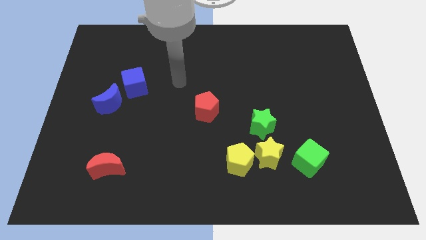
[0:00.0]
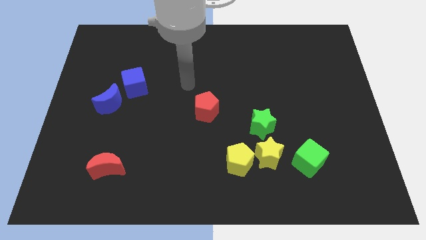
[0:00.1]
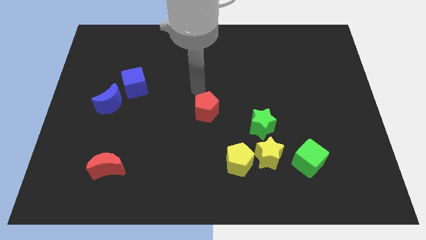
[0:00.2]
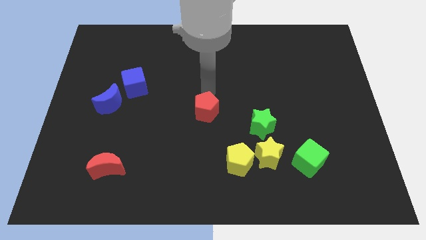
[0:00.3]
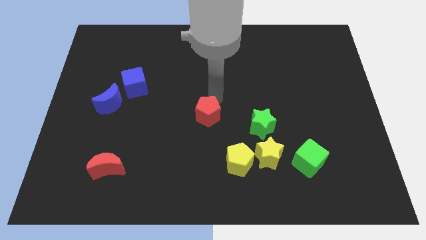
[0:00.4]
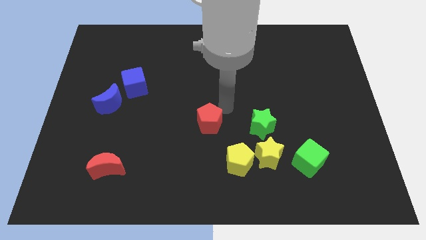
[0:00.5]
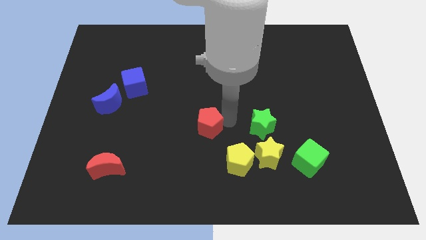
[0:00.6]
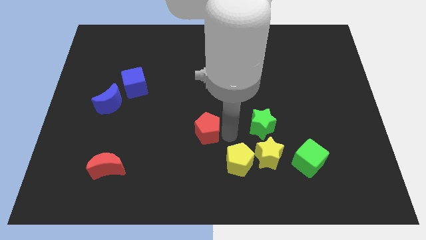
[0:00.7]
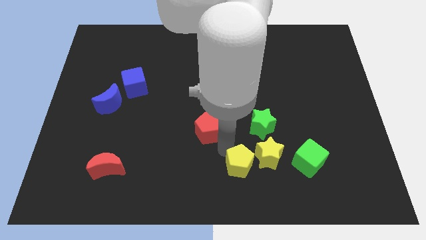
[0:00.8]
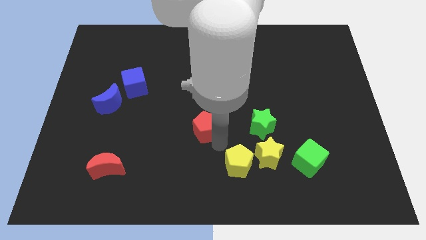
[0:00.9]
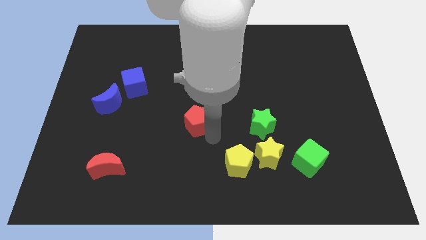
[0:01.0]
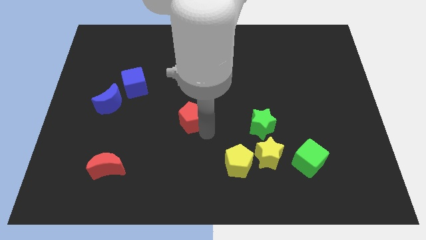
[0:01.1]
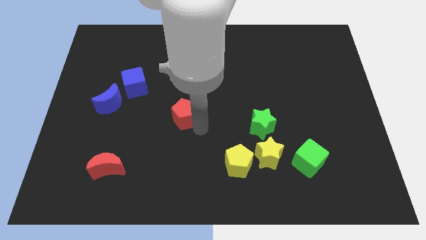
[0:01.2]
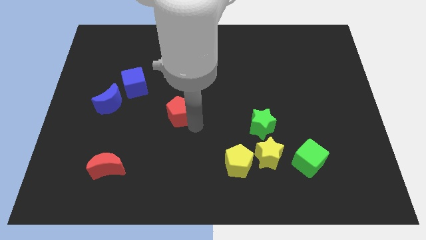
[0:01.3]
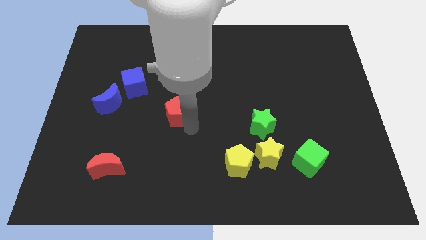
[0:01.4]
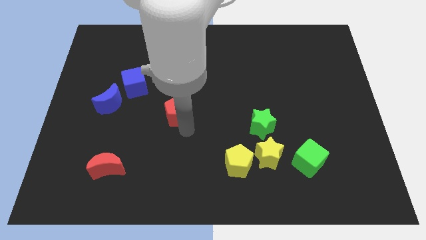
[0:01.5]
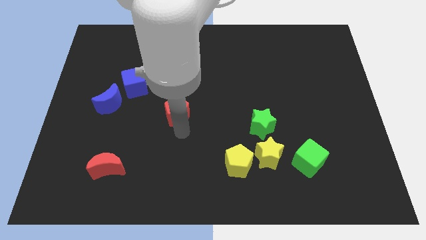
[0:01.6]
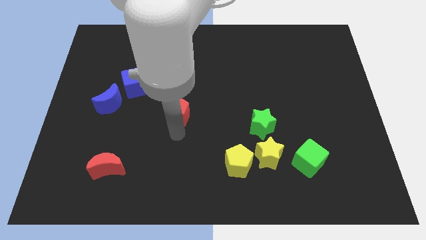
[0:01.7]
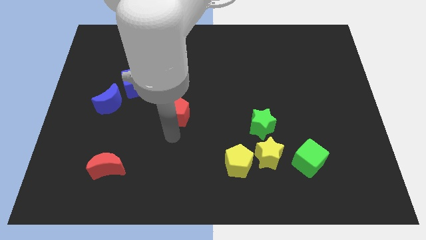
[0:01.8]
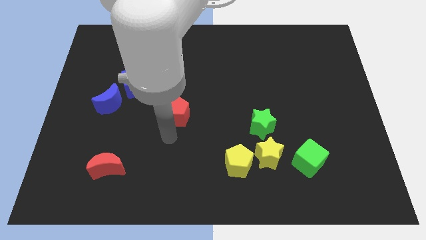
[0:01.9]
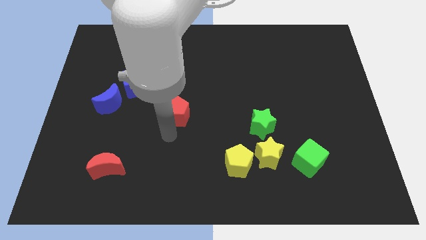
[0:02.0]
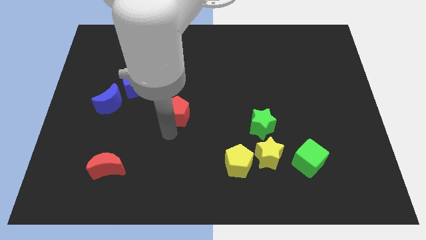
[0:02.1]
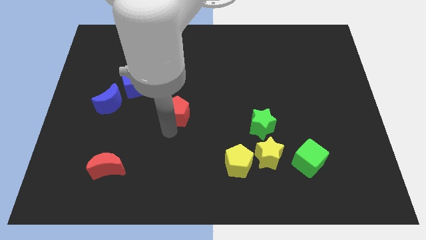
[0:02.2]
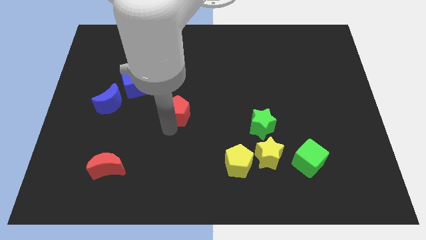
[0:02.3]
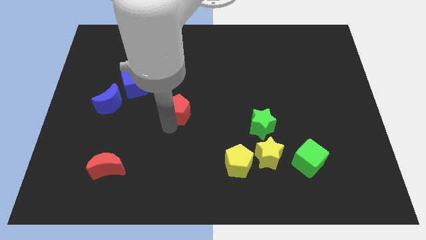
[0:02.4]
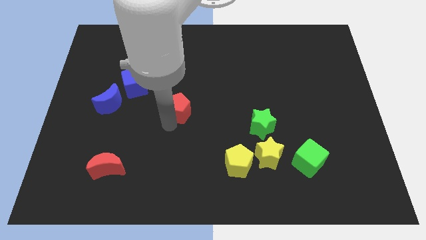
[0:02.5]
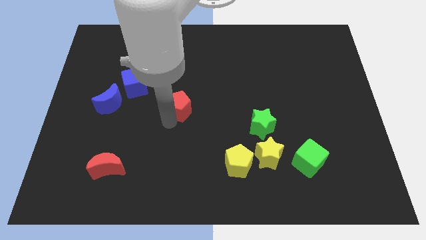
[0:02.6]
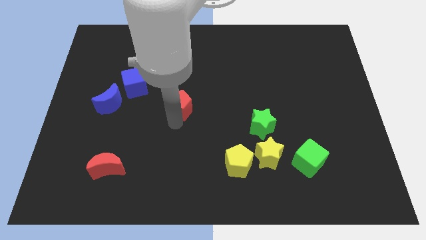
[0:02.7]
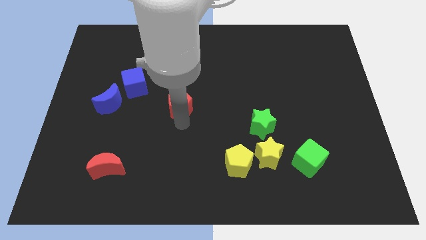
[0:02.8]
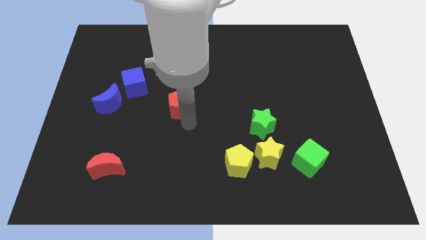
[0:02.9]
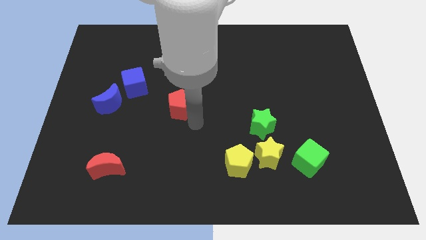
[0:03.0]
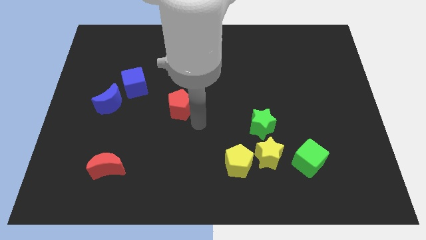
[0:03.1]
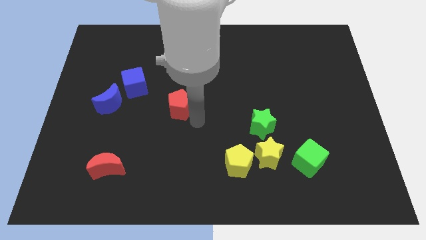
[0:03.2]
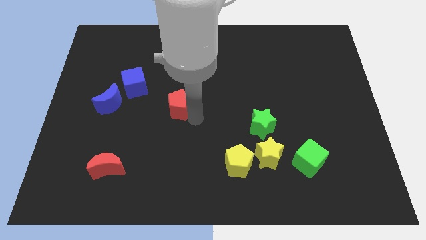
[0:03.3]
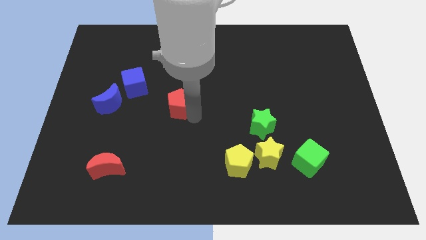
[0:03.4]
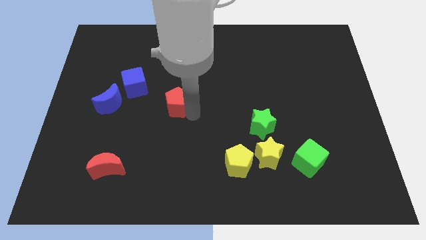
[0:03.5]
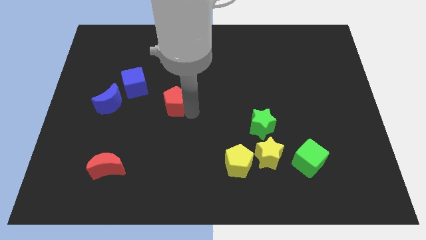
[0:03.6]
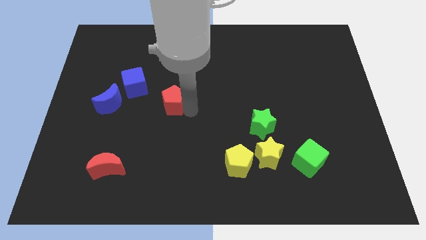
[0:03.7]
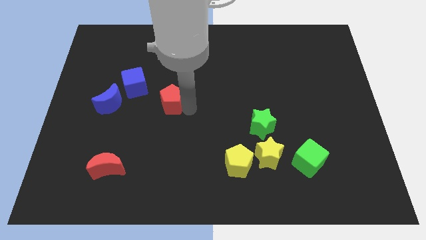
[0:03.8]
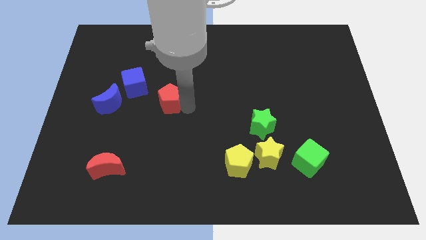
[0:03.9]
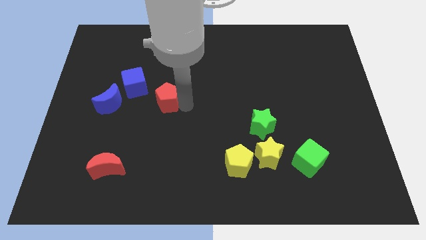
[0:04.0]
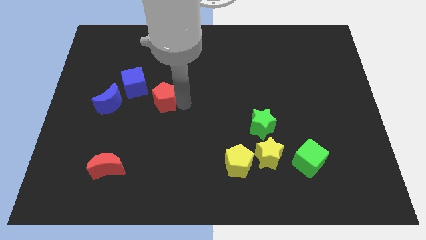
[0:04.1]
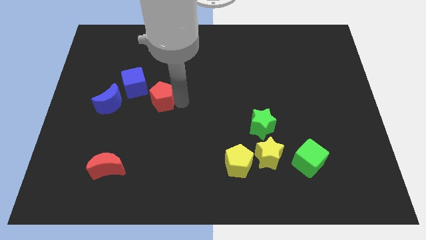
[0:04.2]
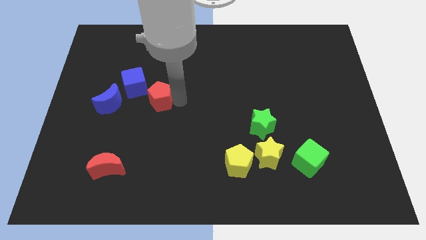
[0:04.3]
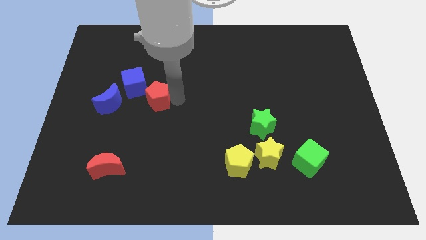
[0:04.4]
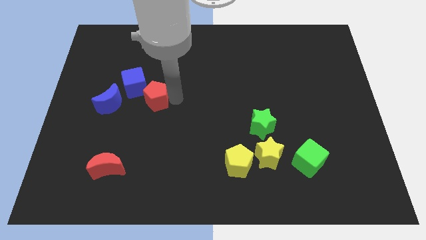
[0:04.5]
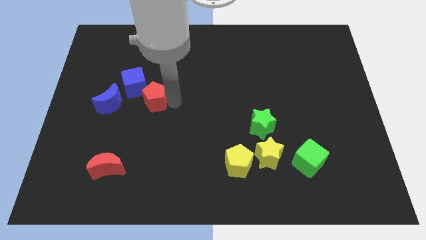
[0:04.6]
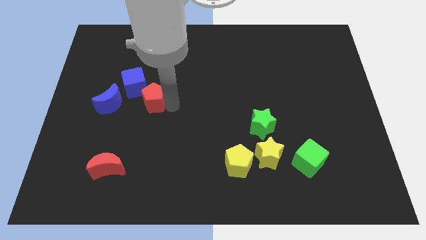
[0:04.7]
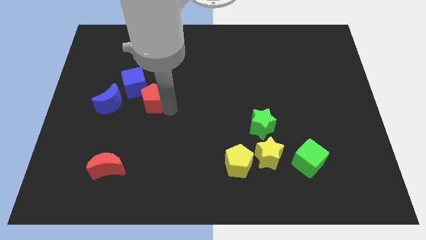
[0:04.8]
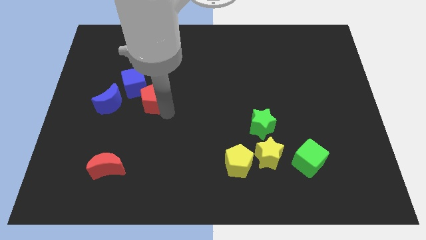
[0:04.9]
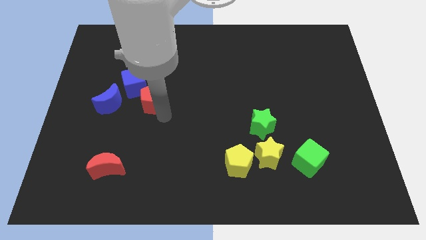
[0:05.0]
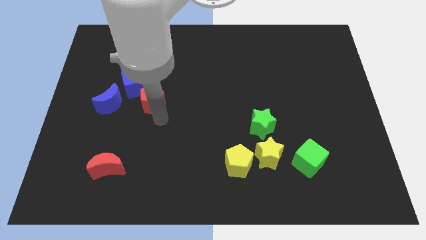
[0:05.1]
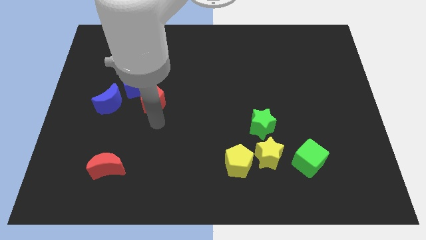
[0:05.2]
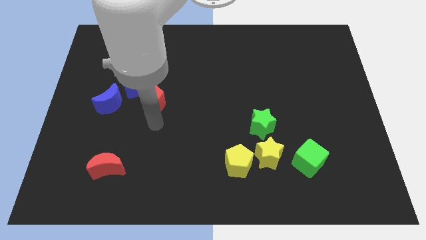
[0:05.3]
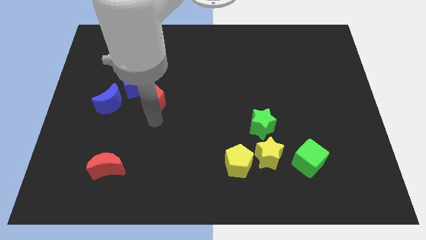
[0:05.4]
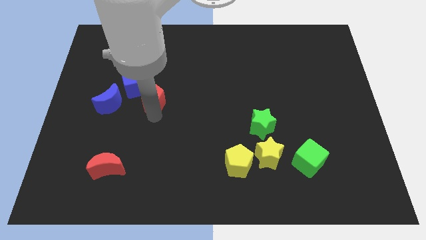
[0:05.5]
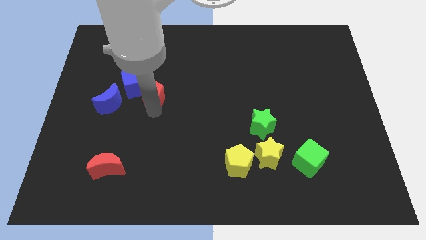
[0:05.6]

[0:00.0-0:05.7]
put the red pentagon to the blue cube

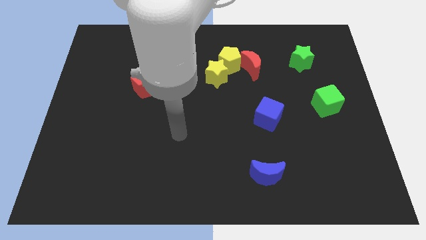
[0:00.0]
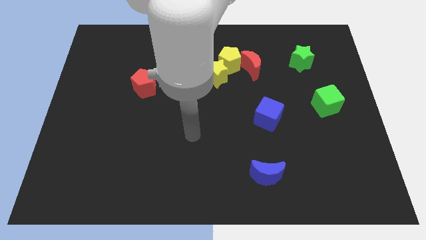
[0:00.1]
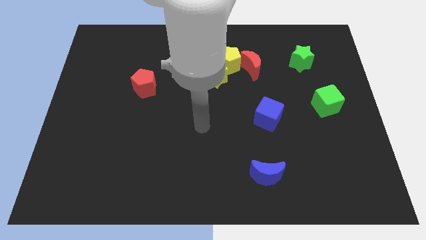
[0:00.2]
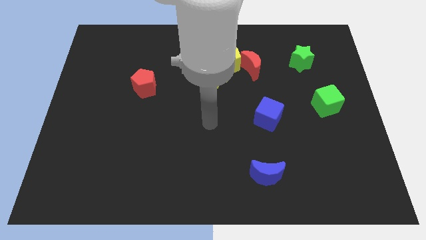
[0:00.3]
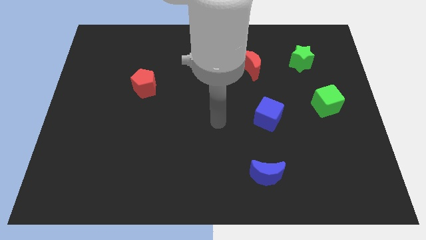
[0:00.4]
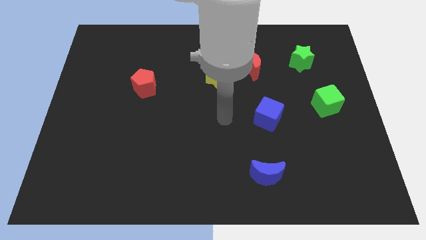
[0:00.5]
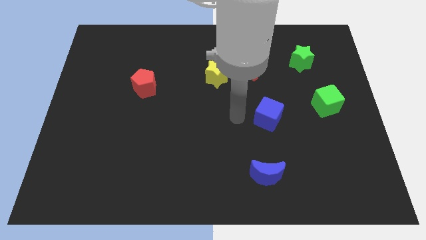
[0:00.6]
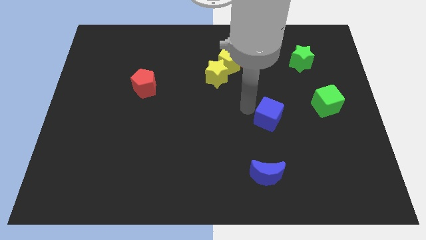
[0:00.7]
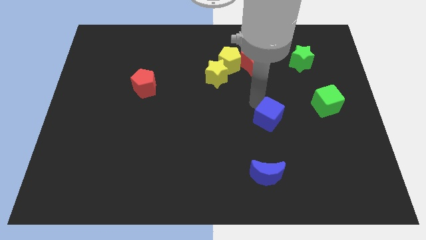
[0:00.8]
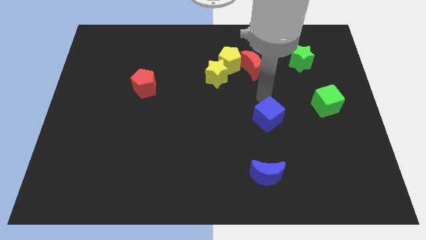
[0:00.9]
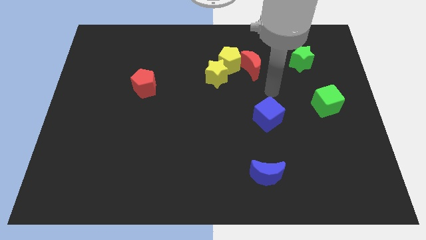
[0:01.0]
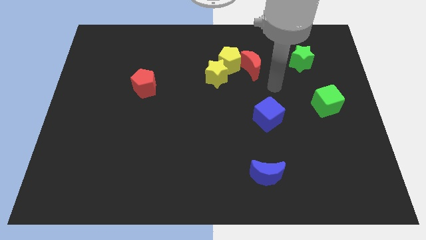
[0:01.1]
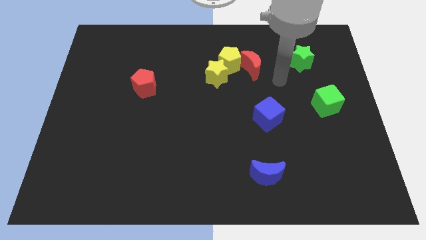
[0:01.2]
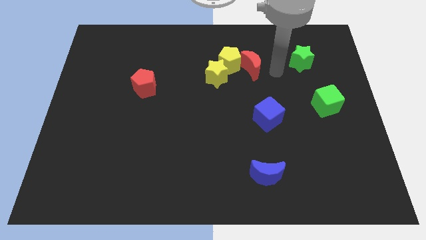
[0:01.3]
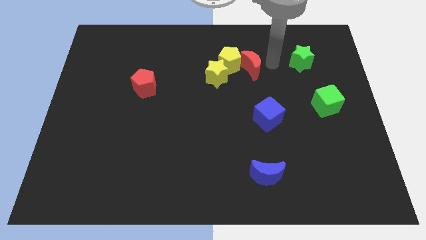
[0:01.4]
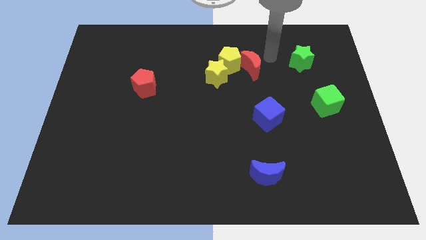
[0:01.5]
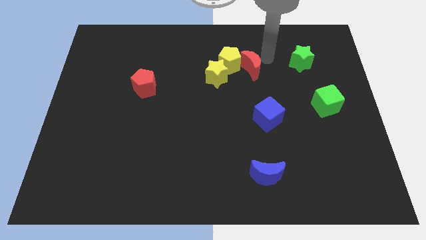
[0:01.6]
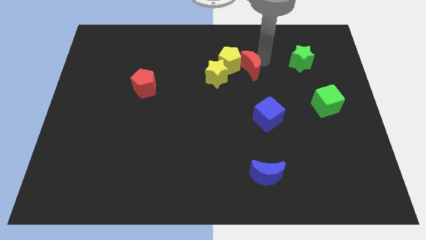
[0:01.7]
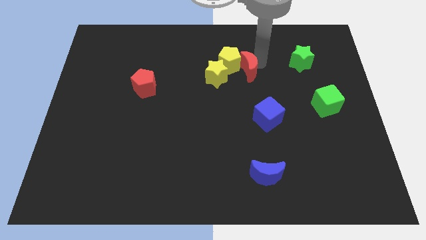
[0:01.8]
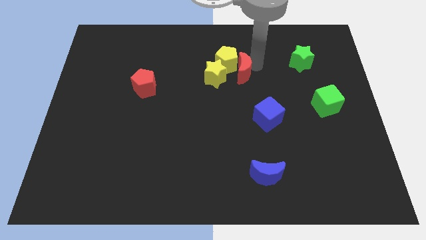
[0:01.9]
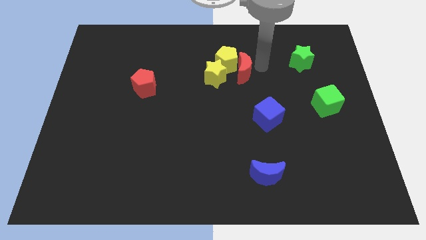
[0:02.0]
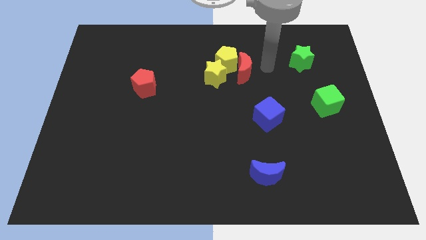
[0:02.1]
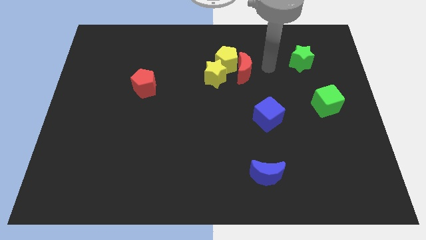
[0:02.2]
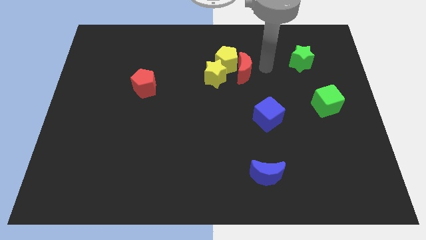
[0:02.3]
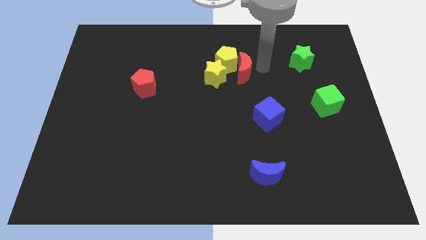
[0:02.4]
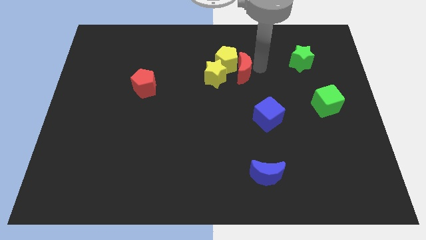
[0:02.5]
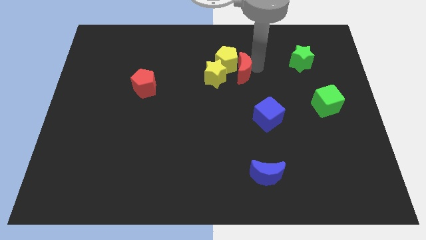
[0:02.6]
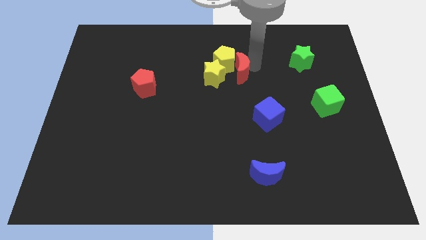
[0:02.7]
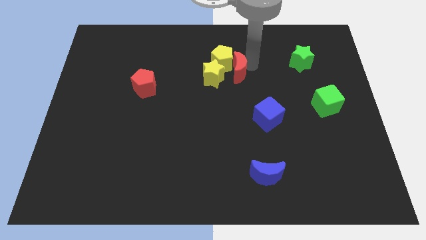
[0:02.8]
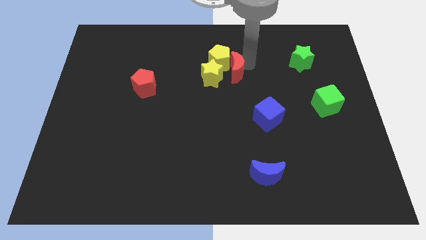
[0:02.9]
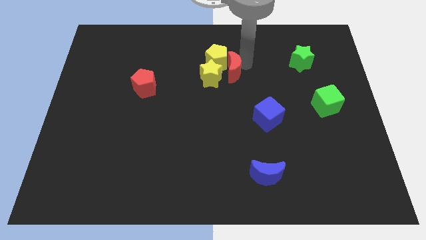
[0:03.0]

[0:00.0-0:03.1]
slide the red moon close to the yellow star
